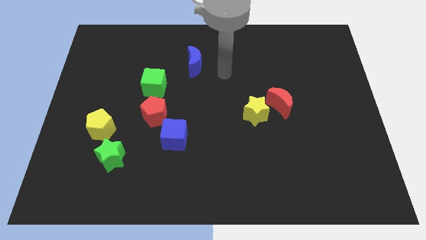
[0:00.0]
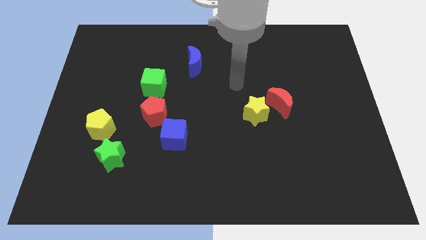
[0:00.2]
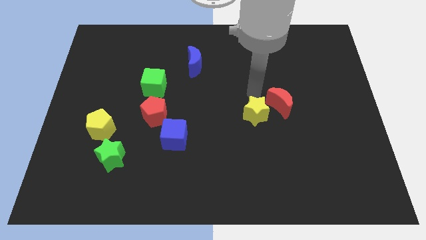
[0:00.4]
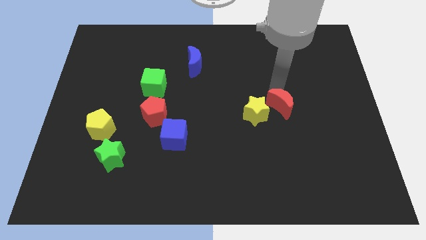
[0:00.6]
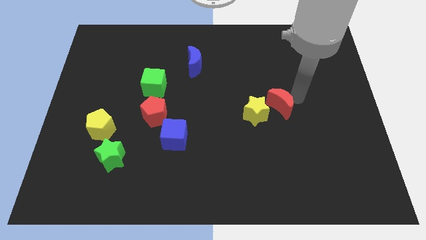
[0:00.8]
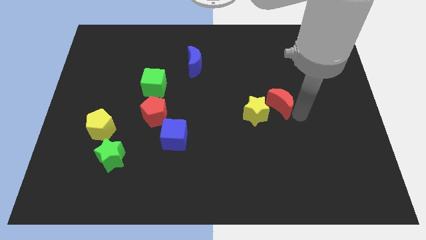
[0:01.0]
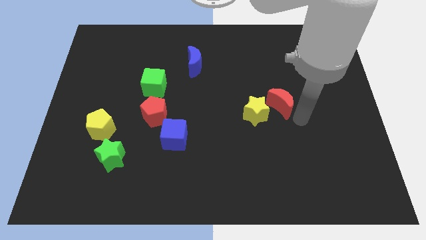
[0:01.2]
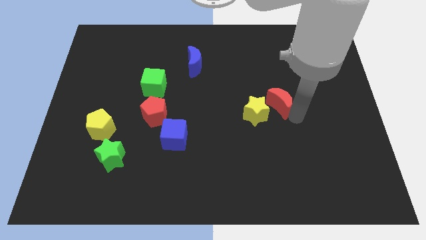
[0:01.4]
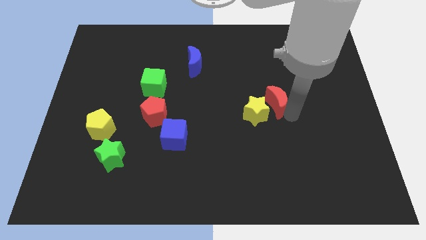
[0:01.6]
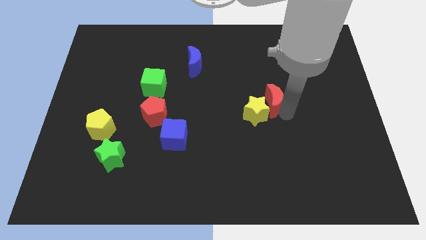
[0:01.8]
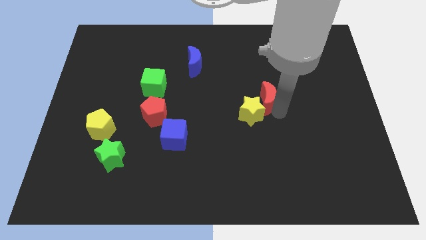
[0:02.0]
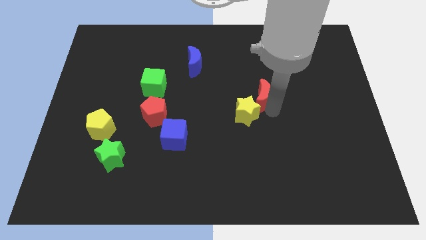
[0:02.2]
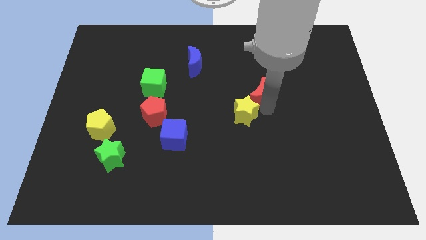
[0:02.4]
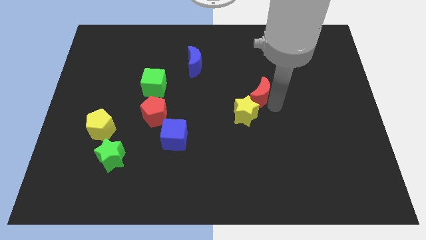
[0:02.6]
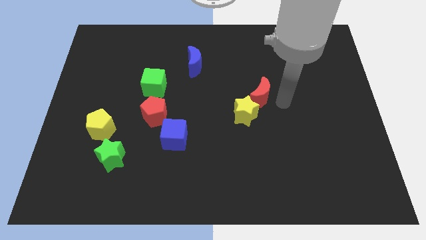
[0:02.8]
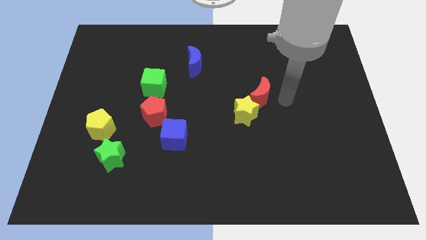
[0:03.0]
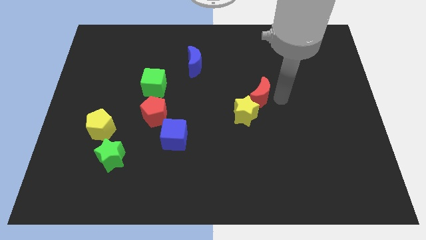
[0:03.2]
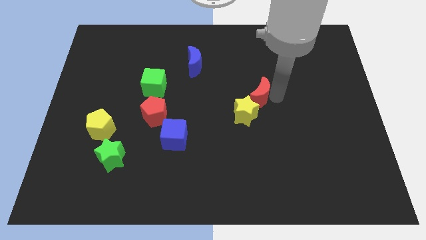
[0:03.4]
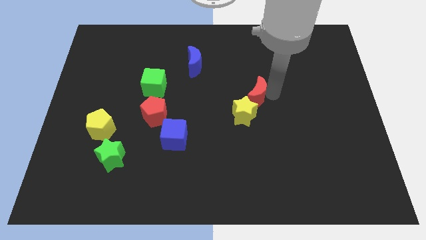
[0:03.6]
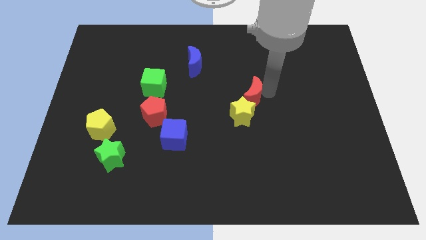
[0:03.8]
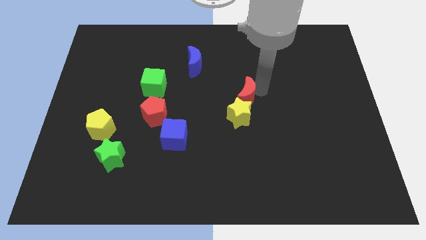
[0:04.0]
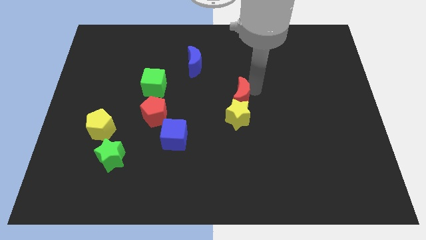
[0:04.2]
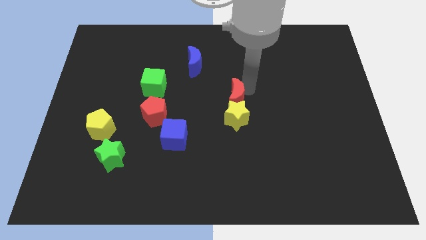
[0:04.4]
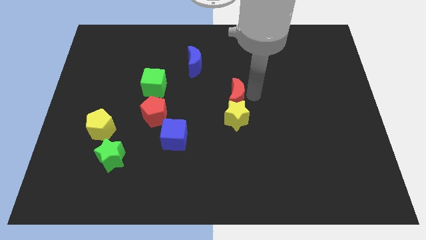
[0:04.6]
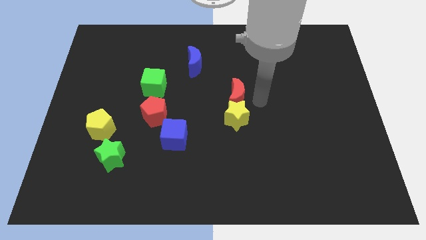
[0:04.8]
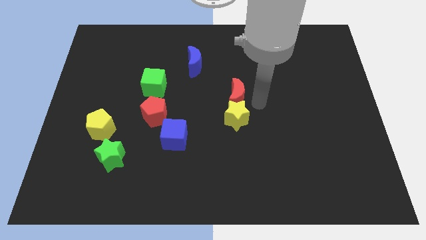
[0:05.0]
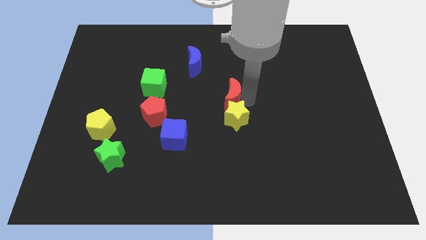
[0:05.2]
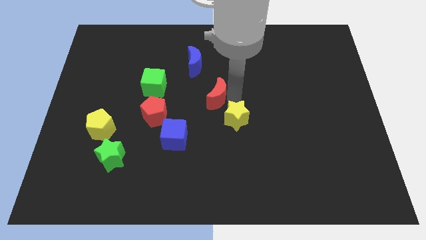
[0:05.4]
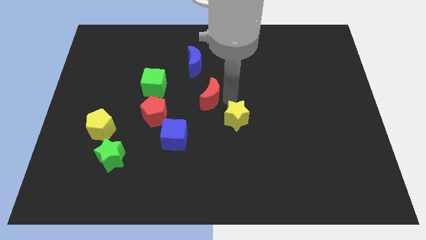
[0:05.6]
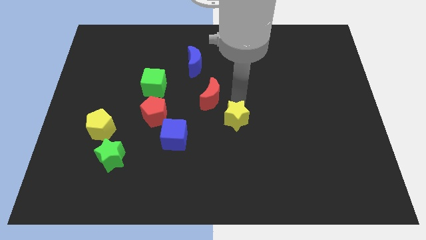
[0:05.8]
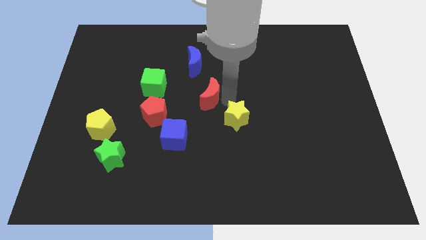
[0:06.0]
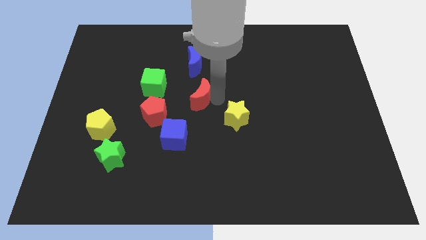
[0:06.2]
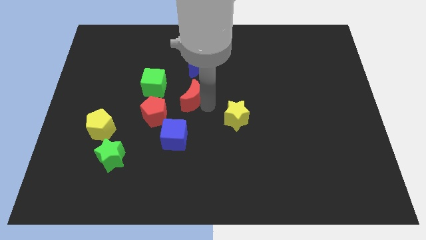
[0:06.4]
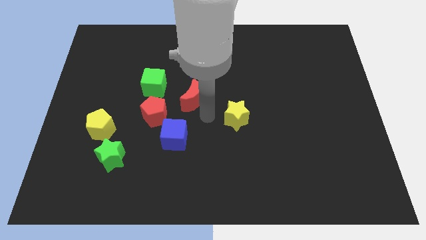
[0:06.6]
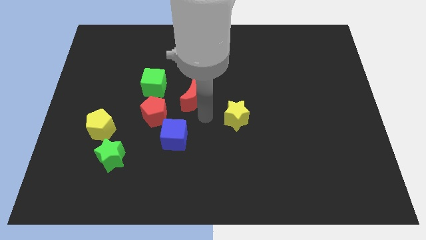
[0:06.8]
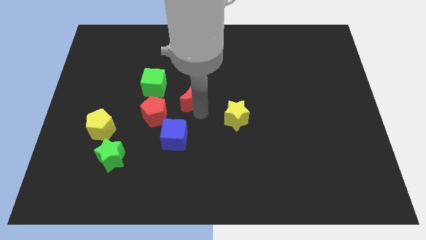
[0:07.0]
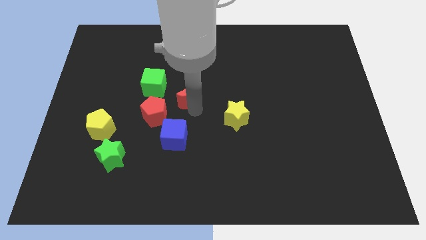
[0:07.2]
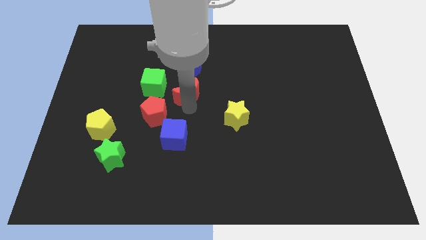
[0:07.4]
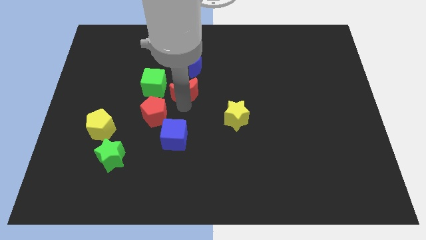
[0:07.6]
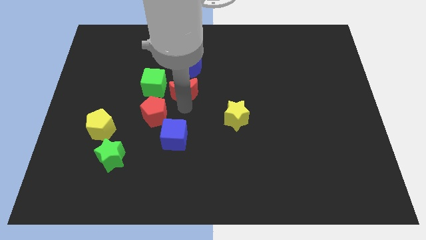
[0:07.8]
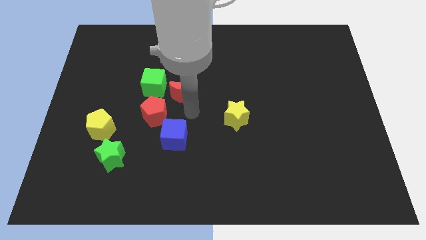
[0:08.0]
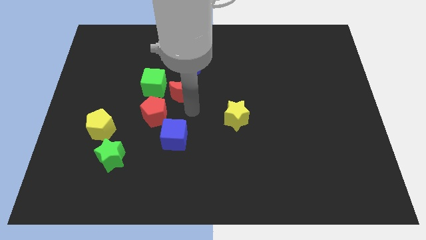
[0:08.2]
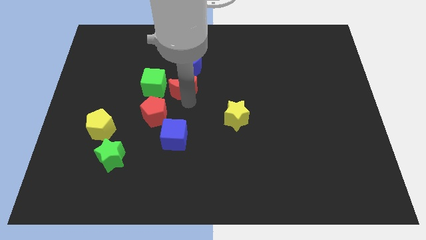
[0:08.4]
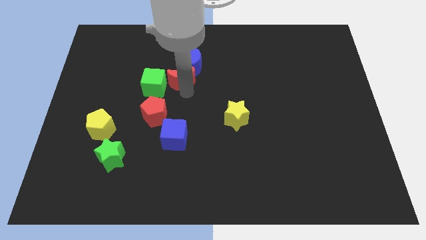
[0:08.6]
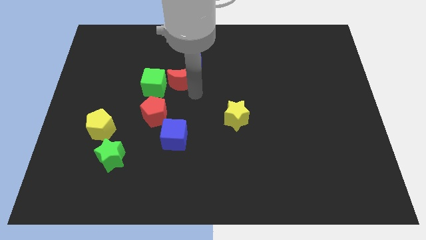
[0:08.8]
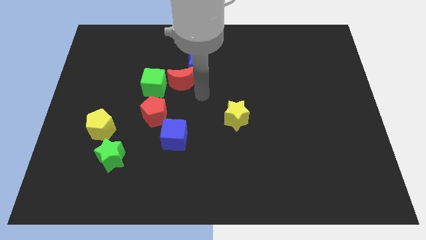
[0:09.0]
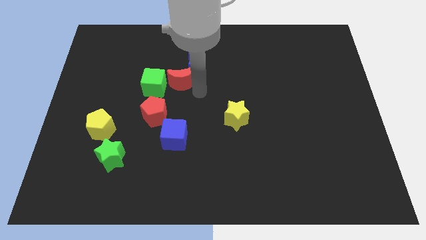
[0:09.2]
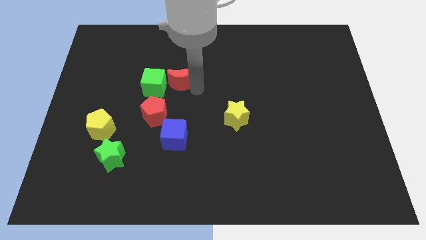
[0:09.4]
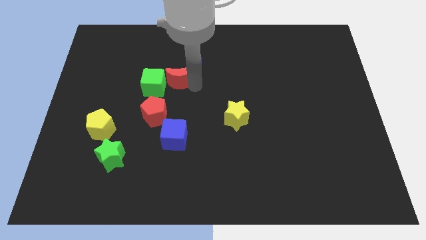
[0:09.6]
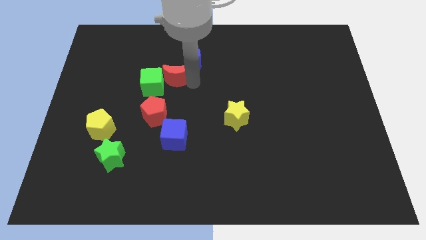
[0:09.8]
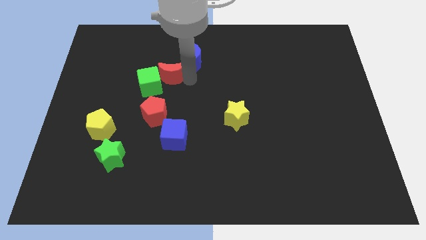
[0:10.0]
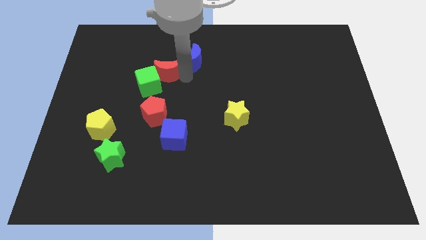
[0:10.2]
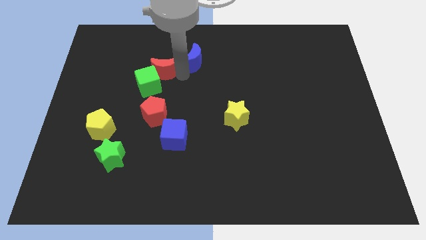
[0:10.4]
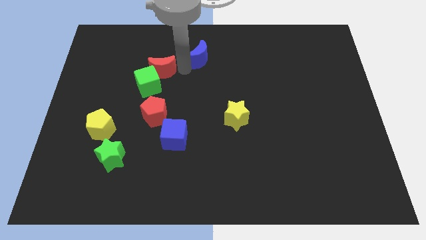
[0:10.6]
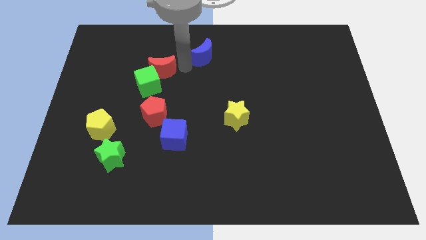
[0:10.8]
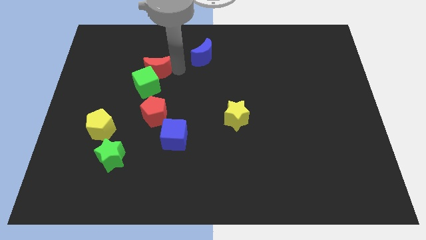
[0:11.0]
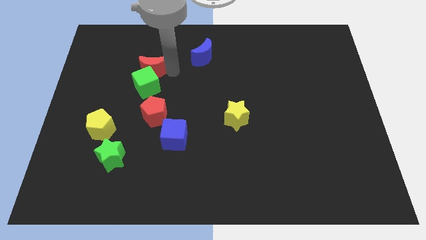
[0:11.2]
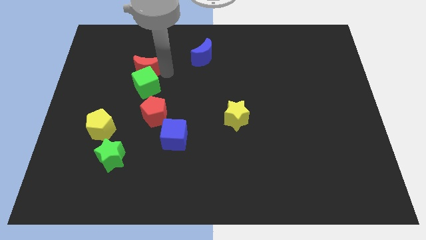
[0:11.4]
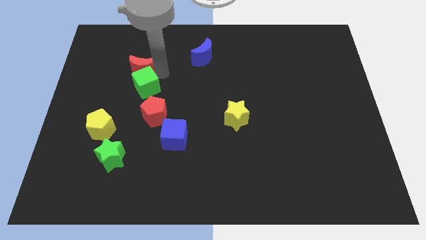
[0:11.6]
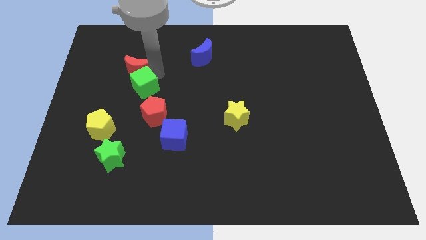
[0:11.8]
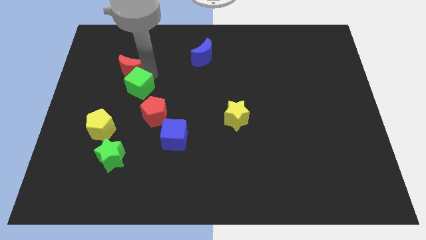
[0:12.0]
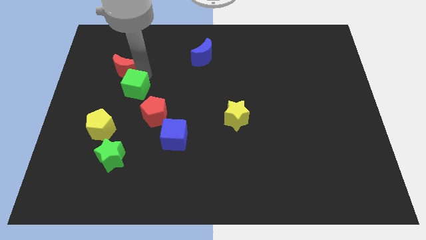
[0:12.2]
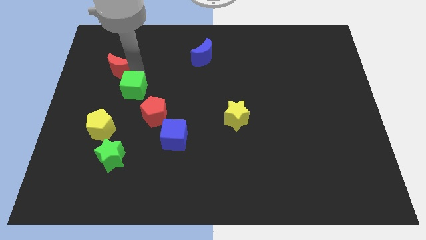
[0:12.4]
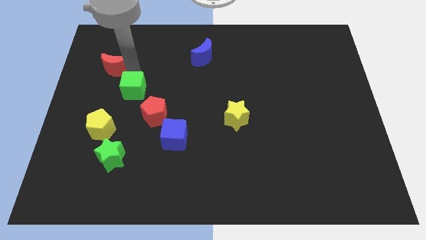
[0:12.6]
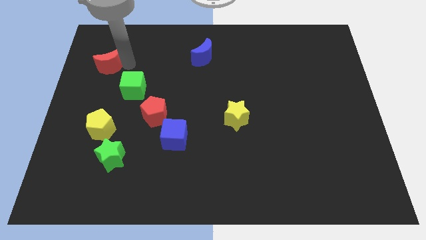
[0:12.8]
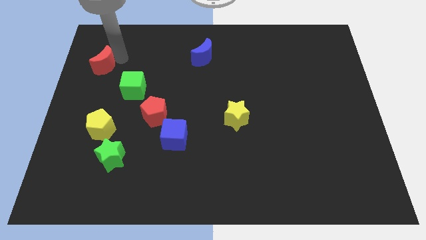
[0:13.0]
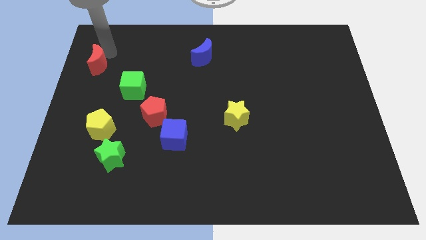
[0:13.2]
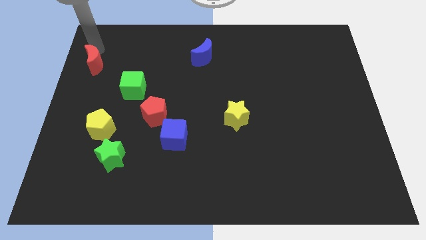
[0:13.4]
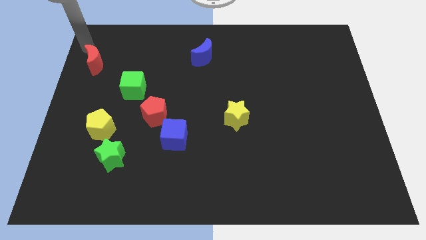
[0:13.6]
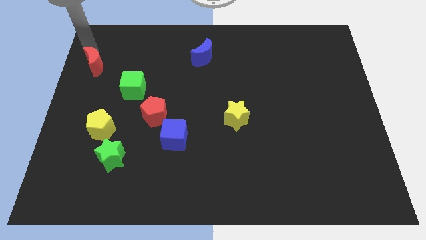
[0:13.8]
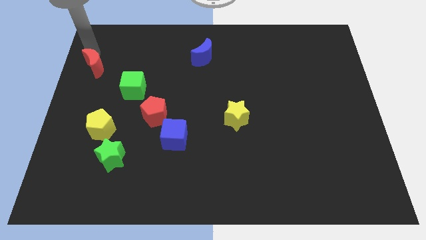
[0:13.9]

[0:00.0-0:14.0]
slide the red moon to the center left
